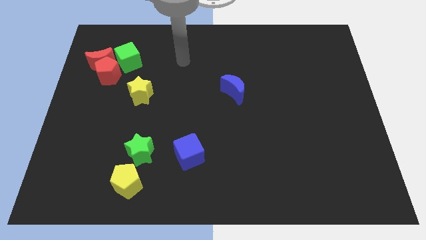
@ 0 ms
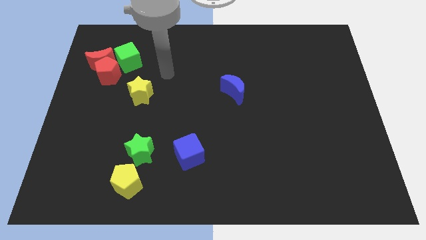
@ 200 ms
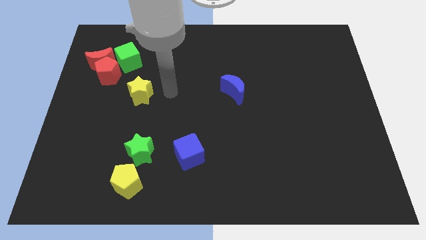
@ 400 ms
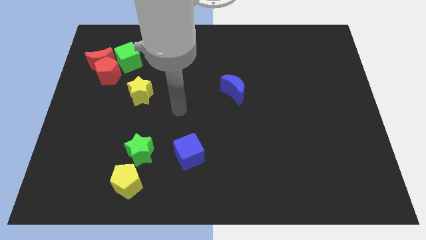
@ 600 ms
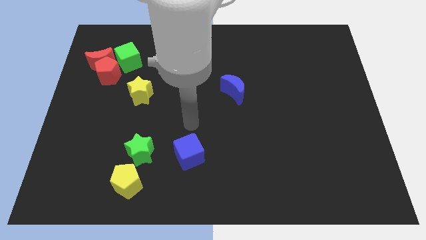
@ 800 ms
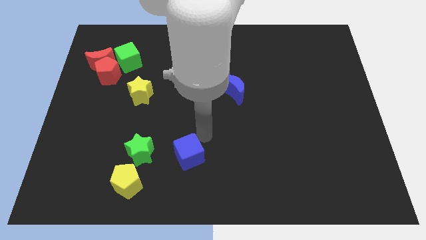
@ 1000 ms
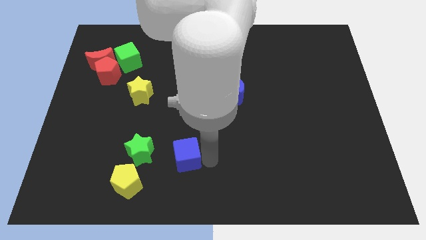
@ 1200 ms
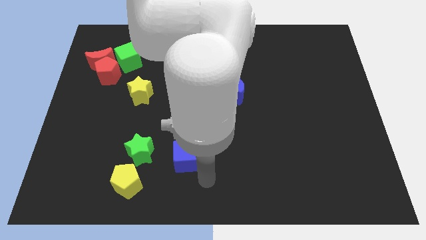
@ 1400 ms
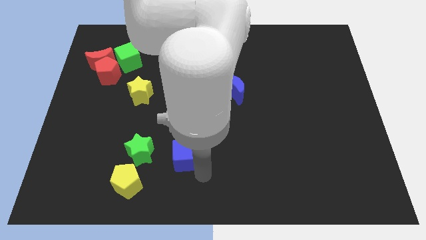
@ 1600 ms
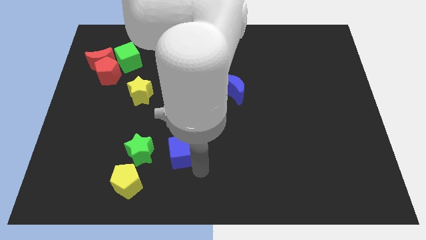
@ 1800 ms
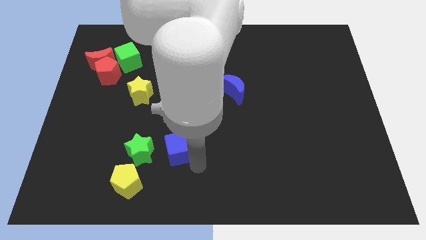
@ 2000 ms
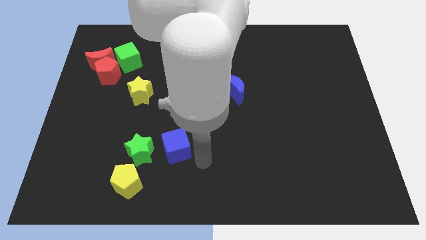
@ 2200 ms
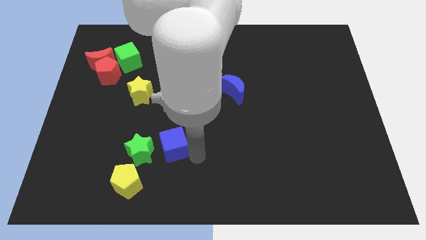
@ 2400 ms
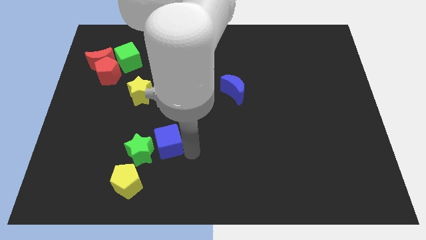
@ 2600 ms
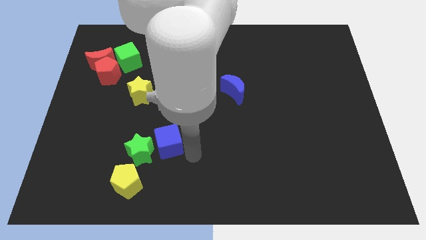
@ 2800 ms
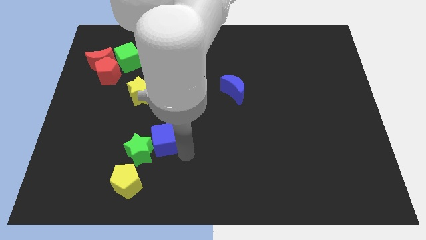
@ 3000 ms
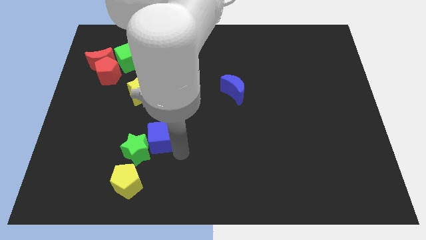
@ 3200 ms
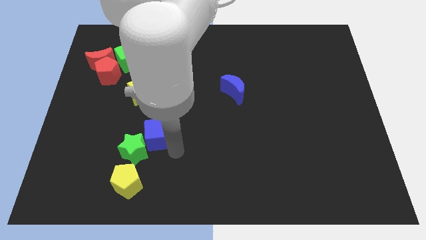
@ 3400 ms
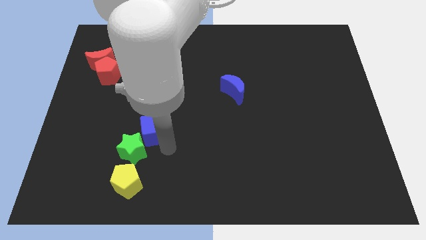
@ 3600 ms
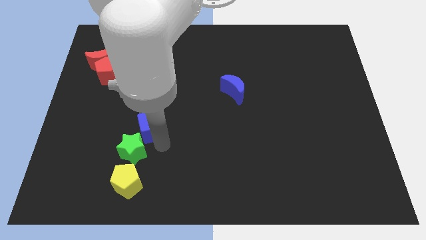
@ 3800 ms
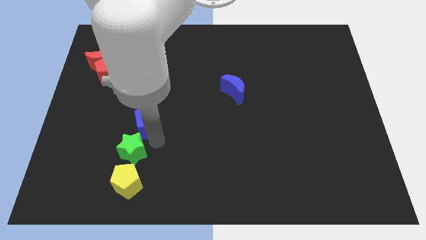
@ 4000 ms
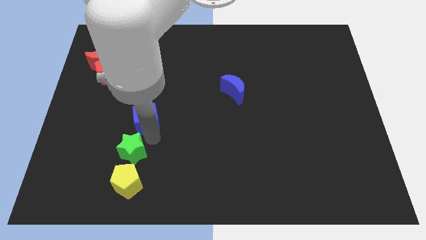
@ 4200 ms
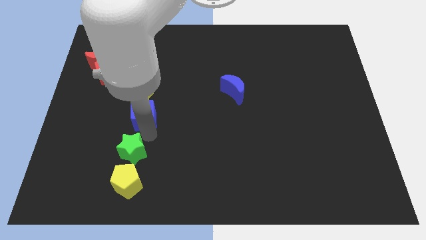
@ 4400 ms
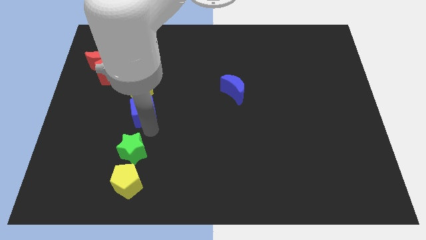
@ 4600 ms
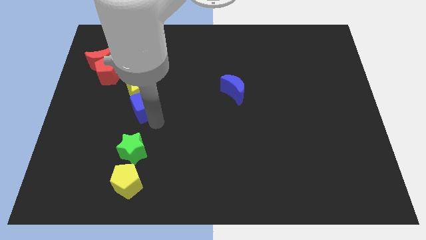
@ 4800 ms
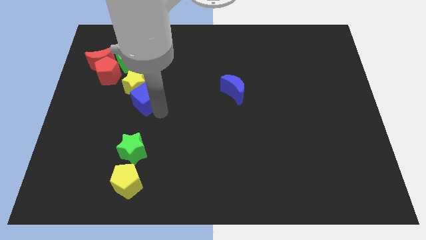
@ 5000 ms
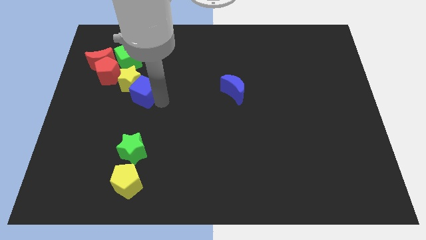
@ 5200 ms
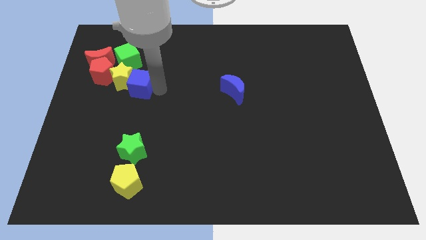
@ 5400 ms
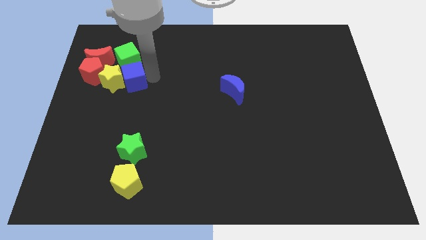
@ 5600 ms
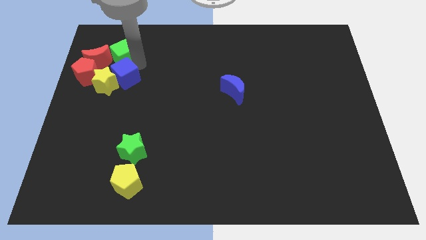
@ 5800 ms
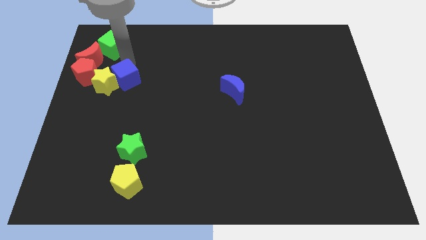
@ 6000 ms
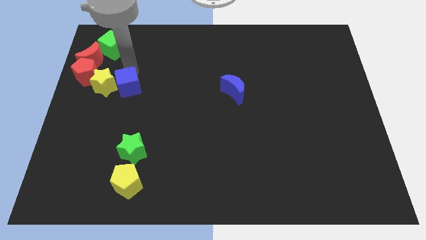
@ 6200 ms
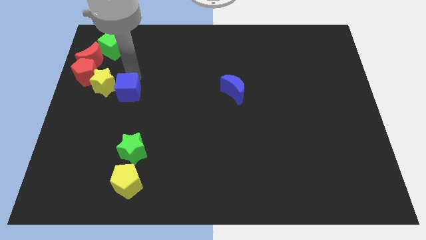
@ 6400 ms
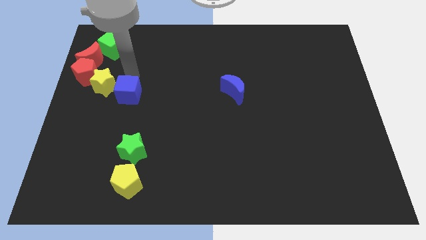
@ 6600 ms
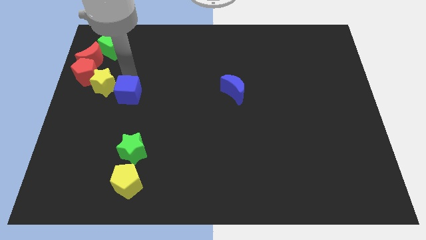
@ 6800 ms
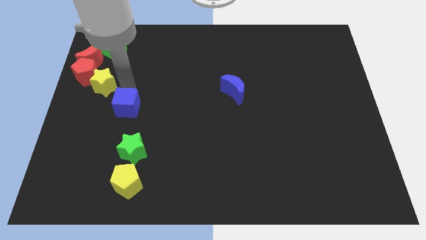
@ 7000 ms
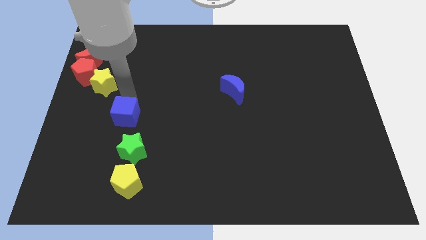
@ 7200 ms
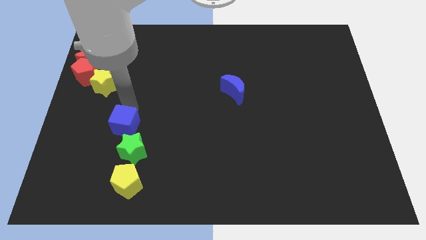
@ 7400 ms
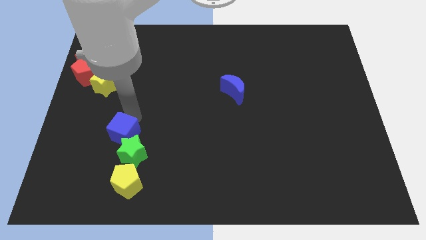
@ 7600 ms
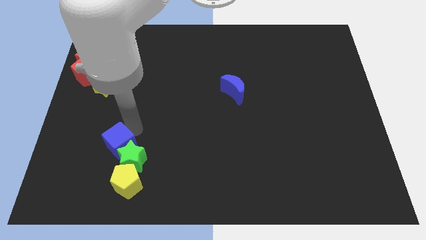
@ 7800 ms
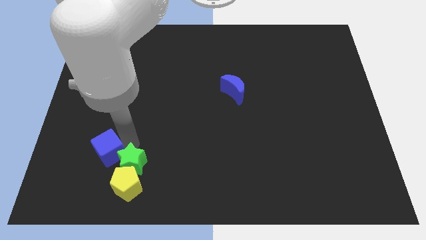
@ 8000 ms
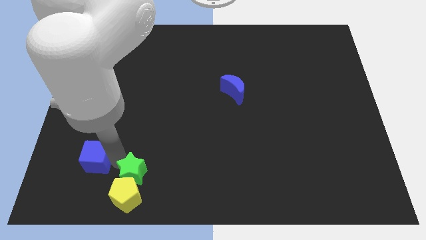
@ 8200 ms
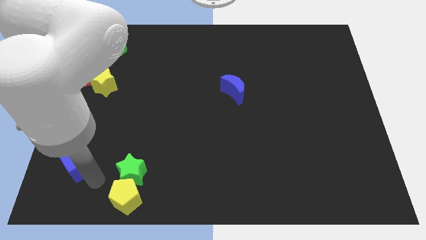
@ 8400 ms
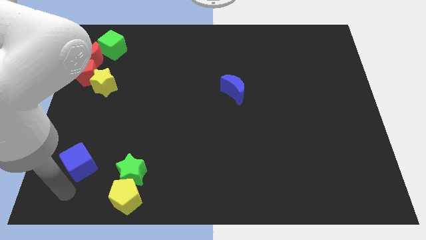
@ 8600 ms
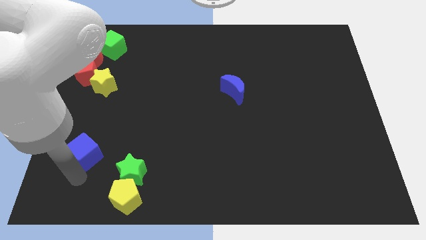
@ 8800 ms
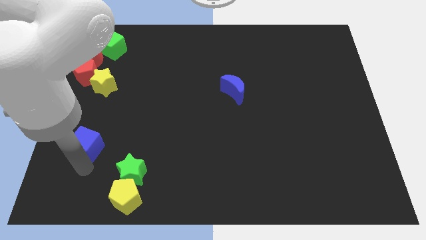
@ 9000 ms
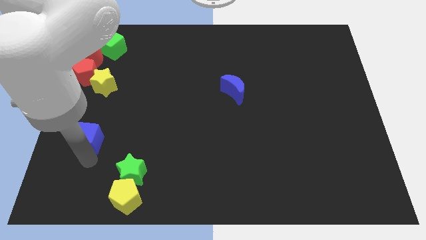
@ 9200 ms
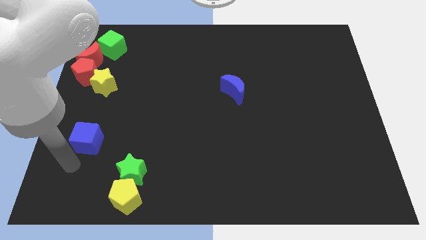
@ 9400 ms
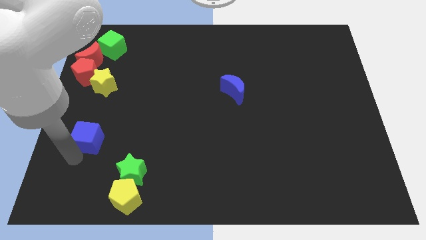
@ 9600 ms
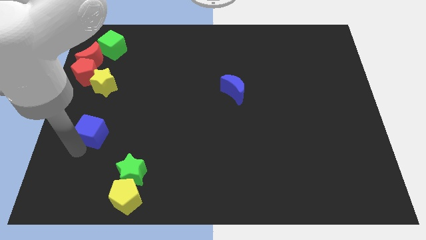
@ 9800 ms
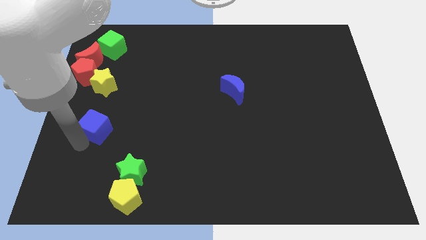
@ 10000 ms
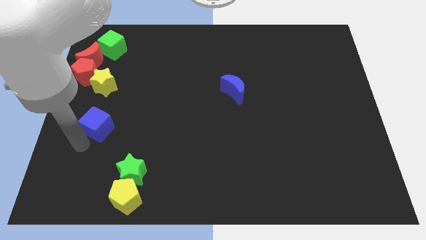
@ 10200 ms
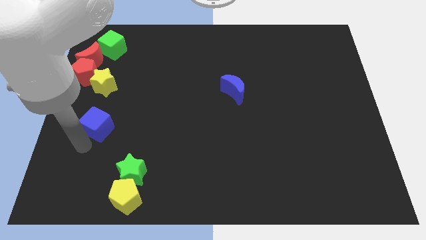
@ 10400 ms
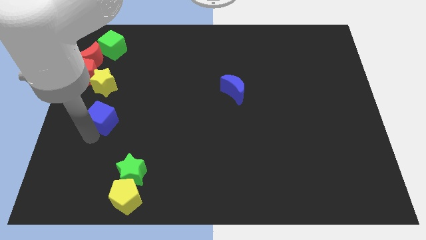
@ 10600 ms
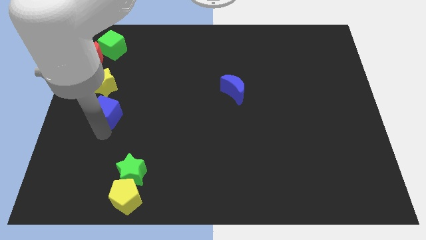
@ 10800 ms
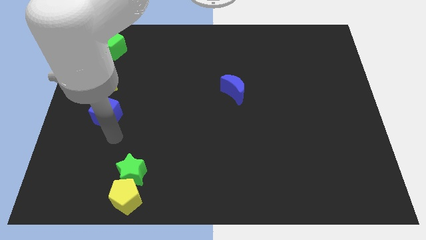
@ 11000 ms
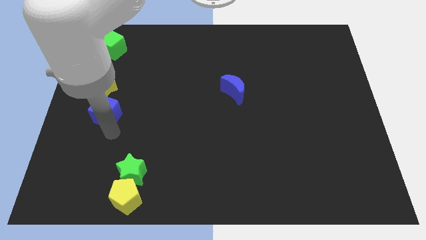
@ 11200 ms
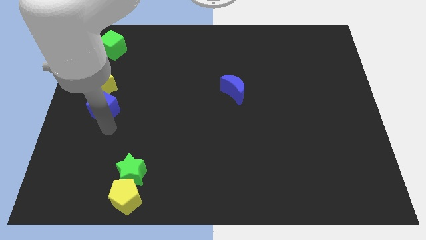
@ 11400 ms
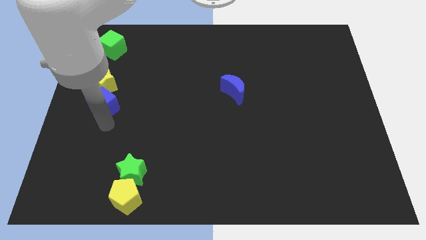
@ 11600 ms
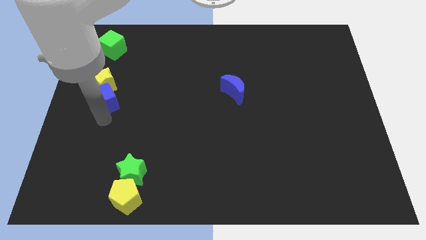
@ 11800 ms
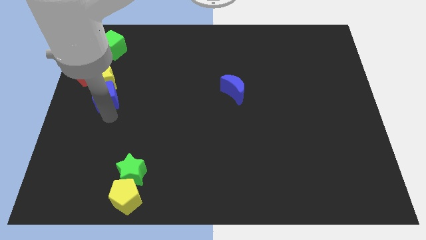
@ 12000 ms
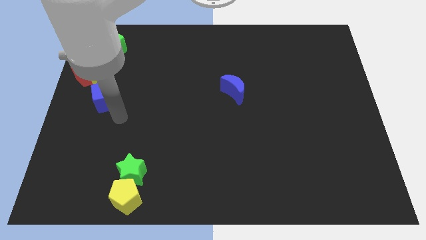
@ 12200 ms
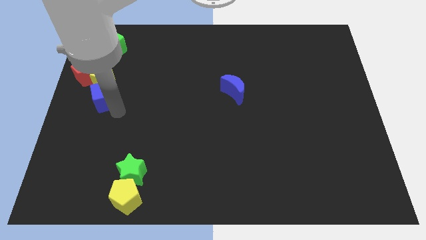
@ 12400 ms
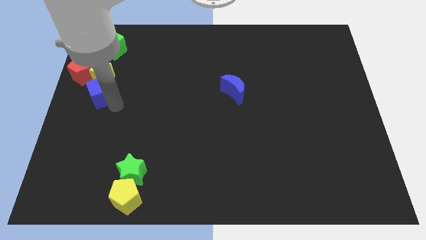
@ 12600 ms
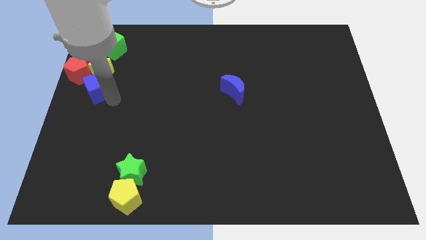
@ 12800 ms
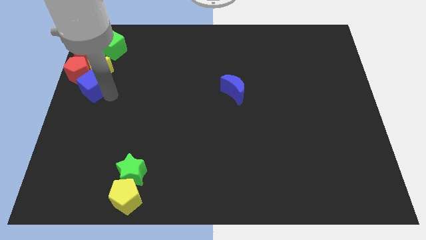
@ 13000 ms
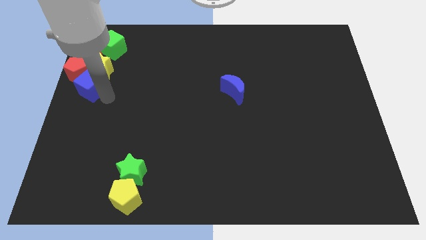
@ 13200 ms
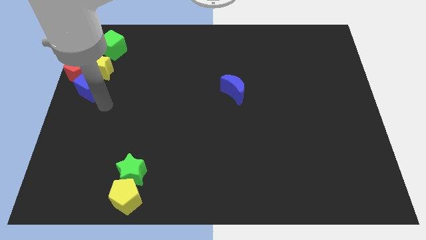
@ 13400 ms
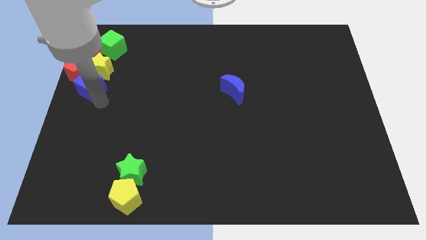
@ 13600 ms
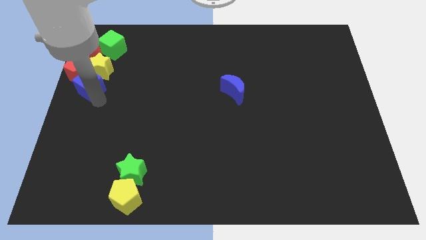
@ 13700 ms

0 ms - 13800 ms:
move the blue cube next to the red pentagon
